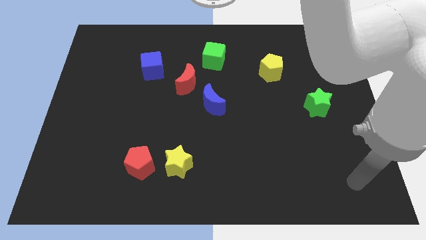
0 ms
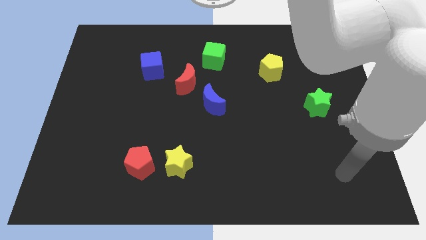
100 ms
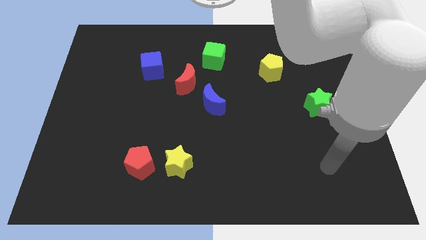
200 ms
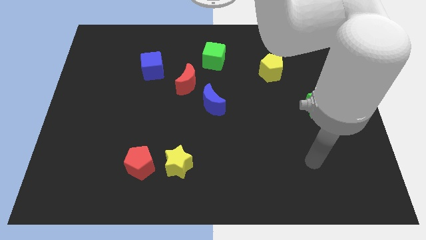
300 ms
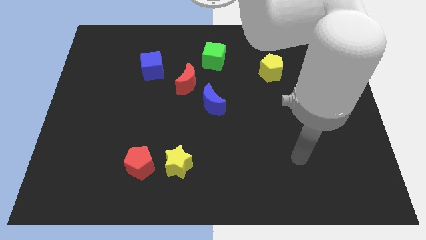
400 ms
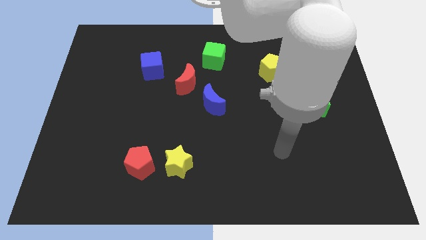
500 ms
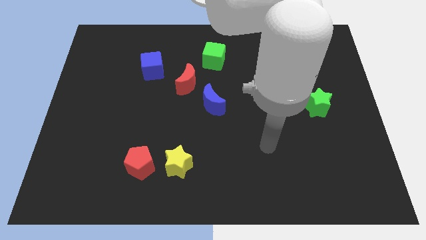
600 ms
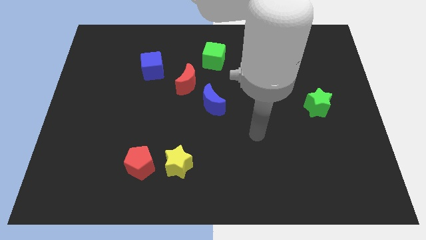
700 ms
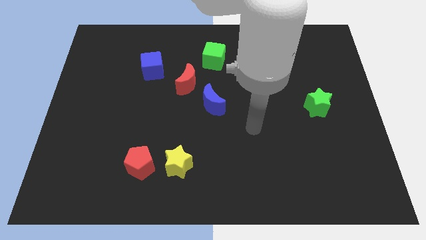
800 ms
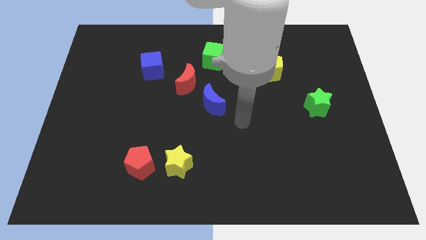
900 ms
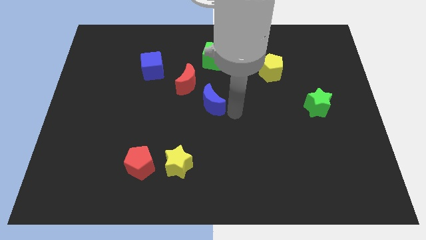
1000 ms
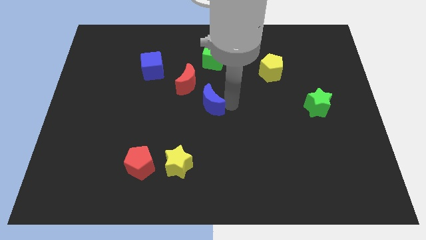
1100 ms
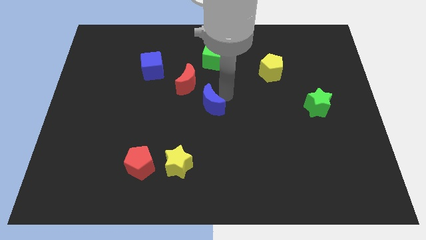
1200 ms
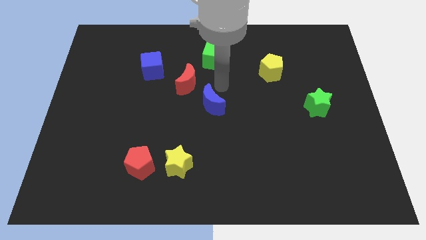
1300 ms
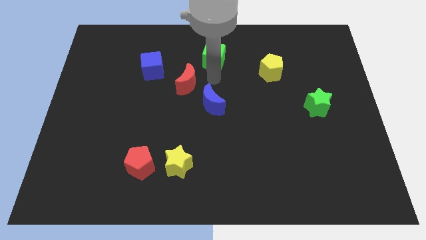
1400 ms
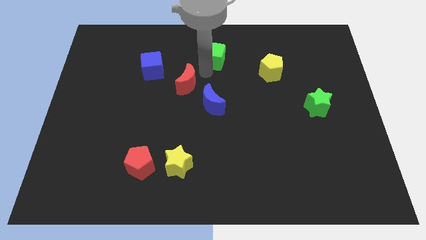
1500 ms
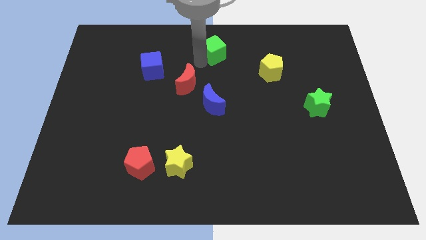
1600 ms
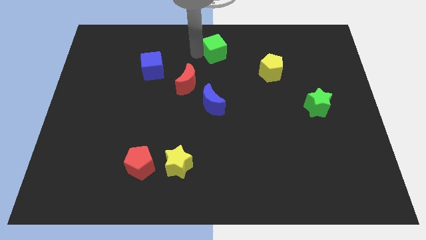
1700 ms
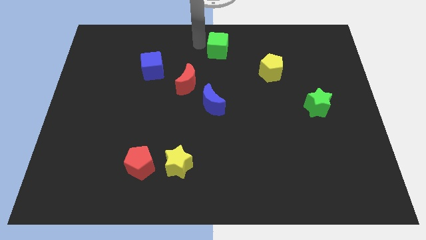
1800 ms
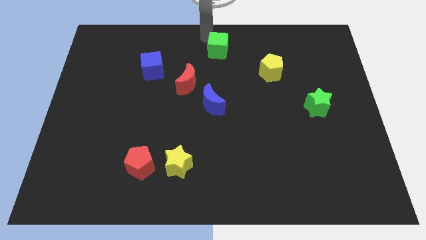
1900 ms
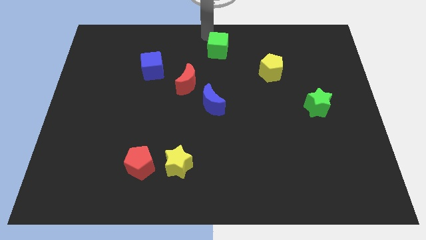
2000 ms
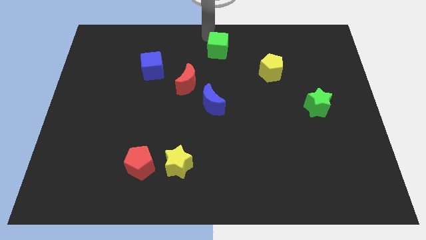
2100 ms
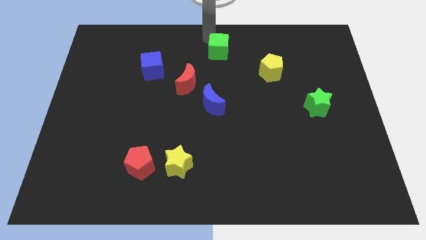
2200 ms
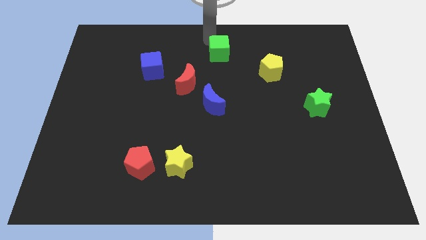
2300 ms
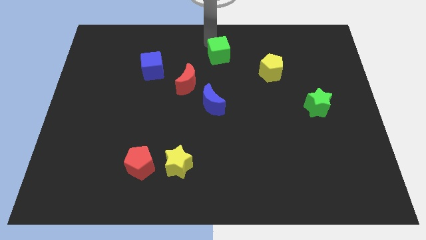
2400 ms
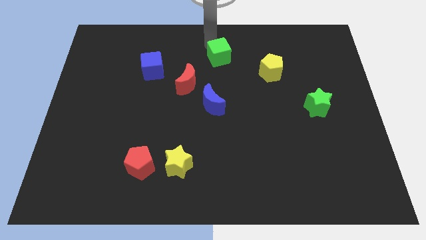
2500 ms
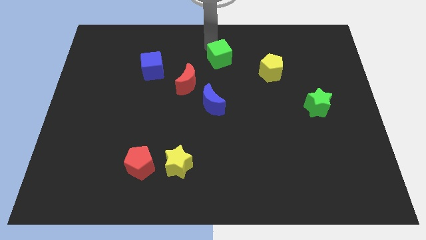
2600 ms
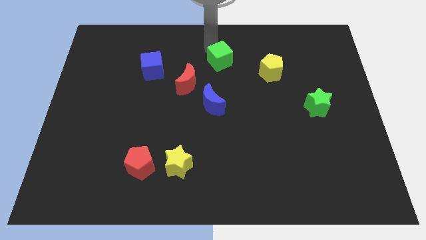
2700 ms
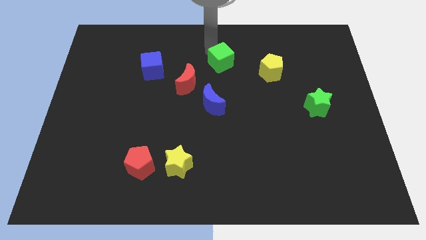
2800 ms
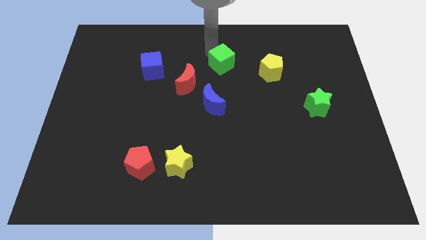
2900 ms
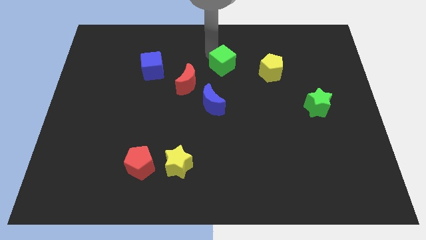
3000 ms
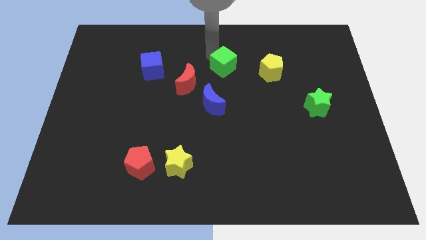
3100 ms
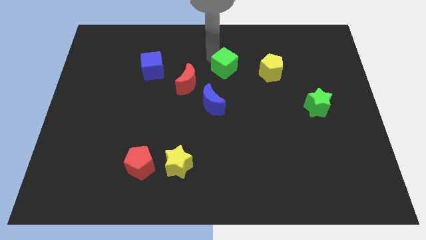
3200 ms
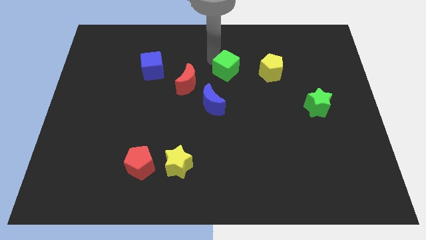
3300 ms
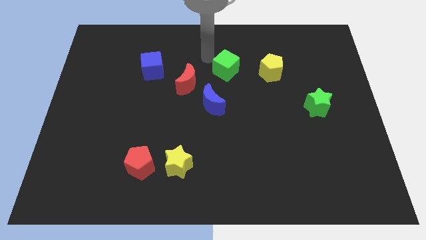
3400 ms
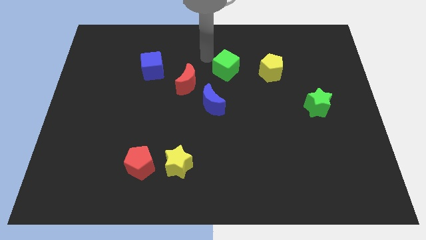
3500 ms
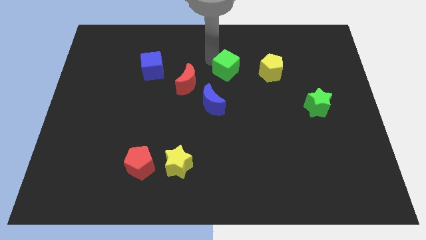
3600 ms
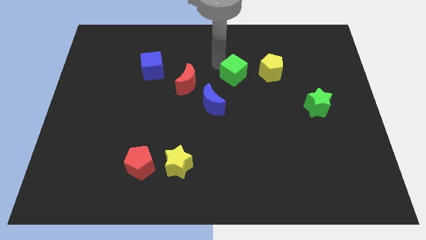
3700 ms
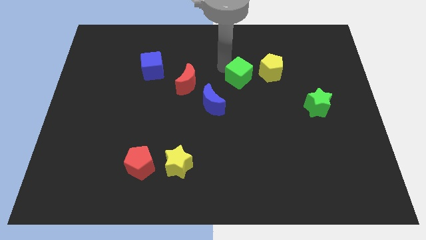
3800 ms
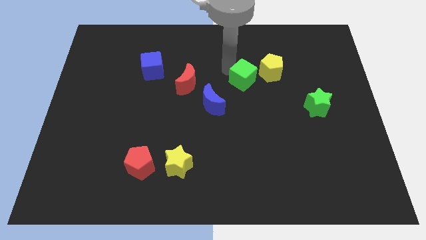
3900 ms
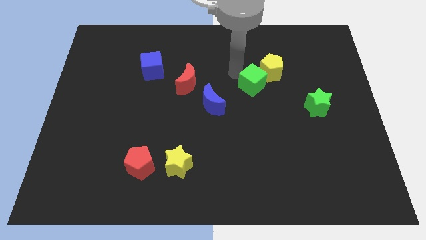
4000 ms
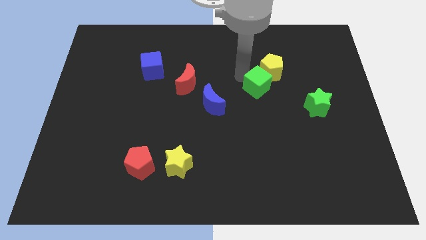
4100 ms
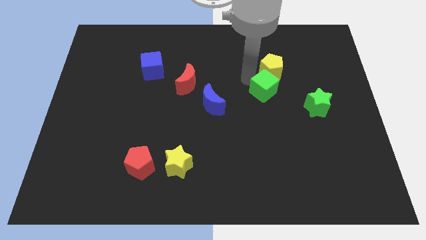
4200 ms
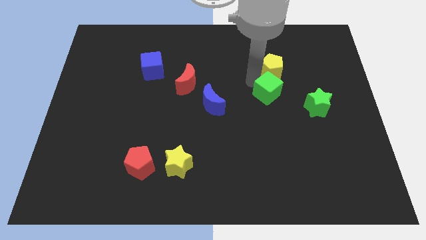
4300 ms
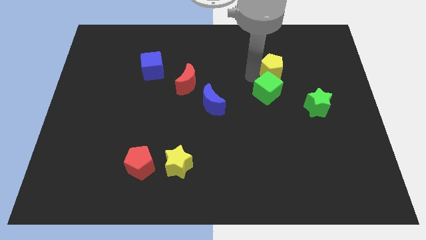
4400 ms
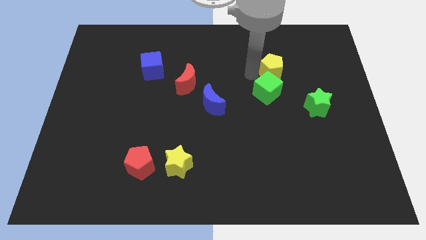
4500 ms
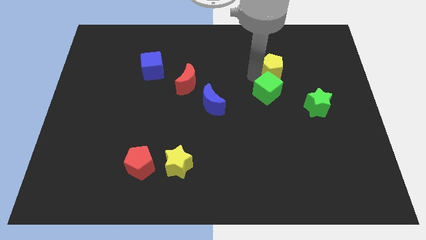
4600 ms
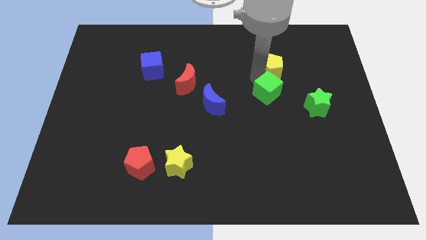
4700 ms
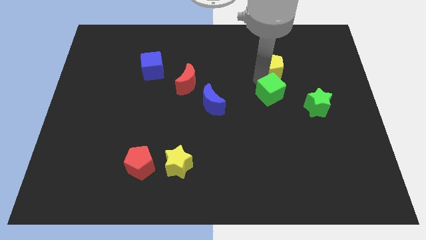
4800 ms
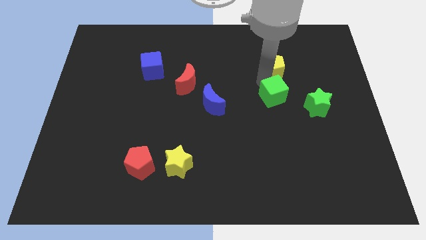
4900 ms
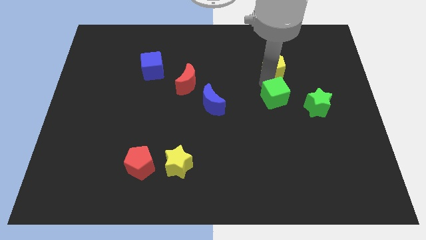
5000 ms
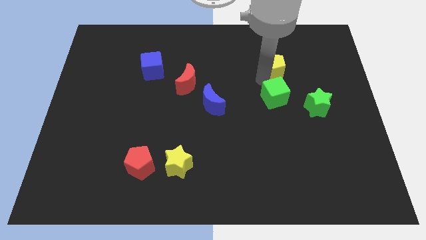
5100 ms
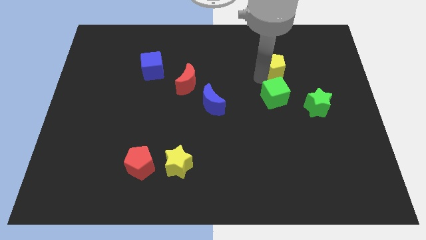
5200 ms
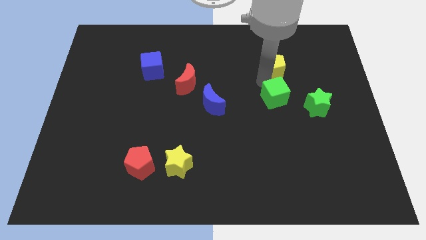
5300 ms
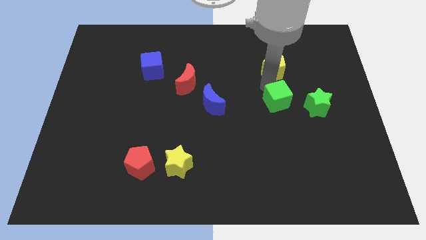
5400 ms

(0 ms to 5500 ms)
slide the green cube downwards and then right

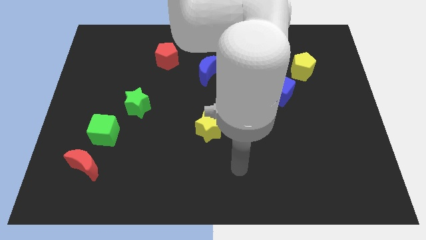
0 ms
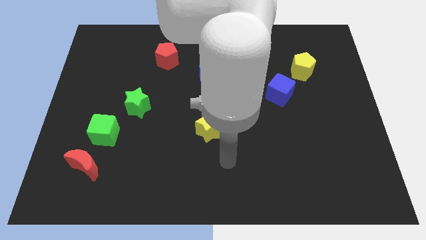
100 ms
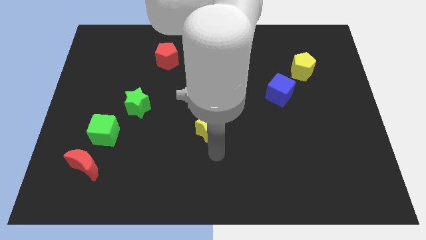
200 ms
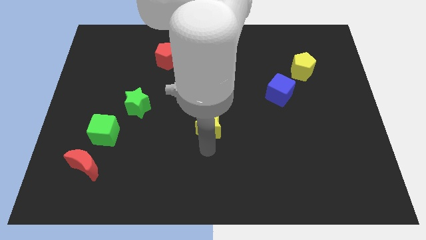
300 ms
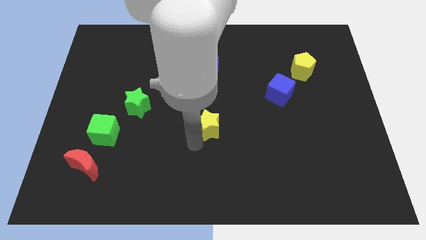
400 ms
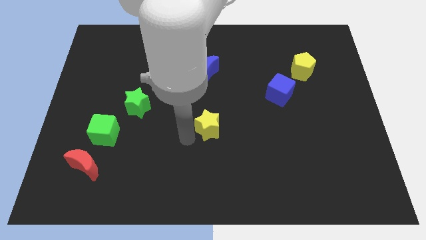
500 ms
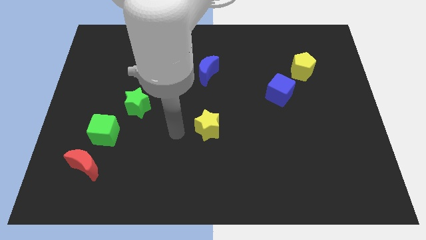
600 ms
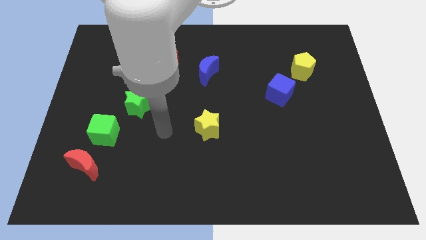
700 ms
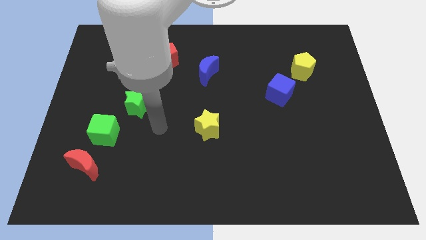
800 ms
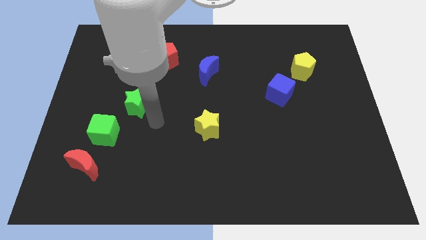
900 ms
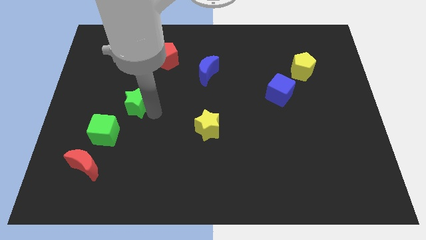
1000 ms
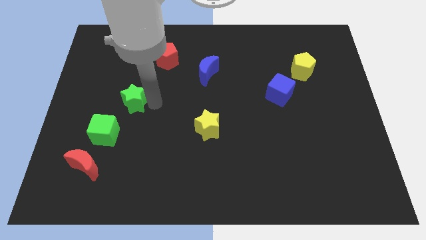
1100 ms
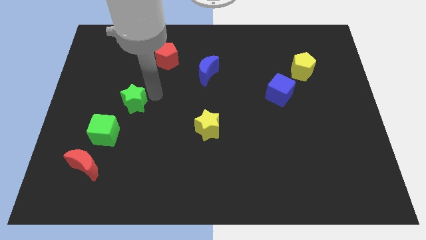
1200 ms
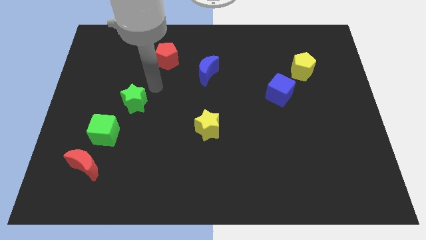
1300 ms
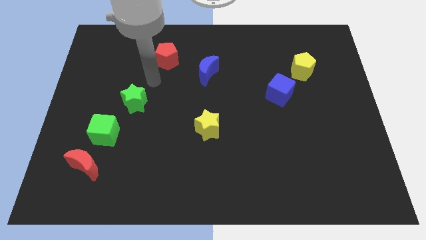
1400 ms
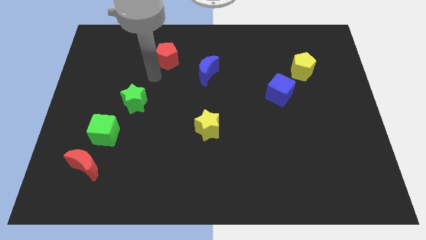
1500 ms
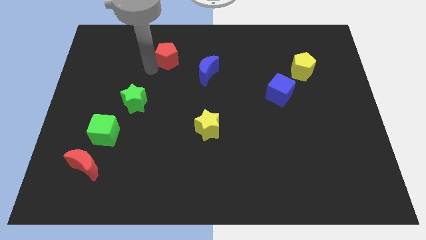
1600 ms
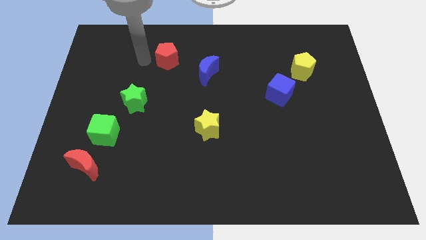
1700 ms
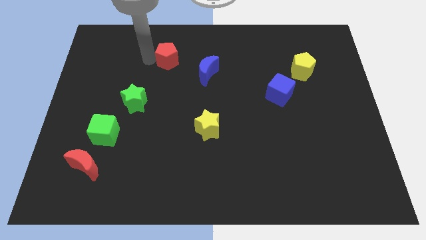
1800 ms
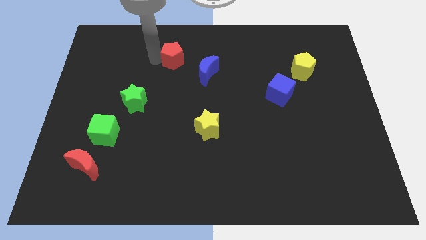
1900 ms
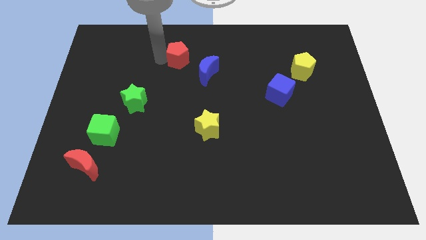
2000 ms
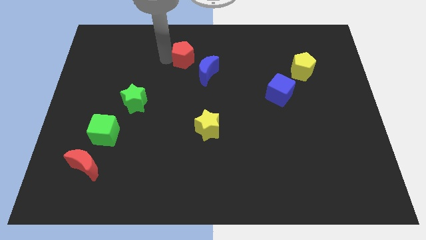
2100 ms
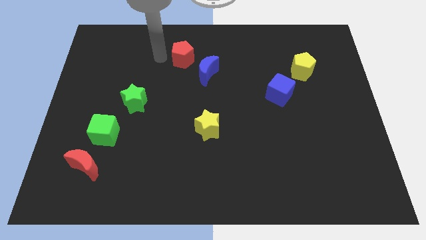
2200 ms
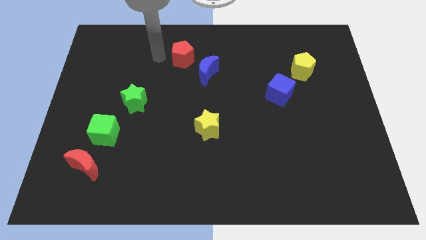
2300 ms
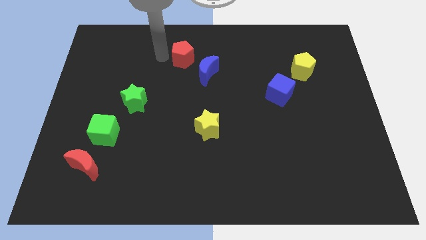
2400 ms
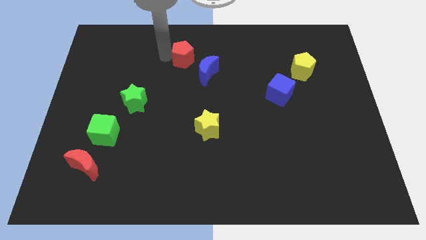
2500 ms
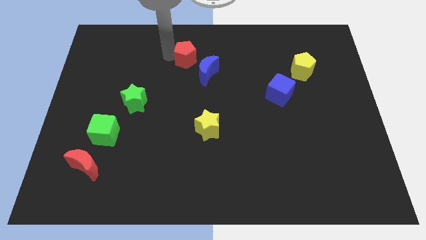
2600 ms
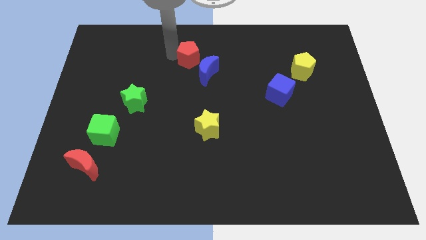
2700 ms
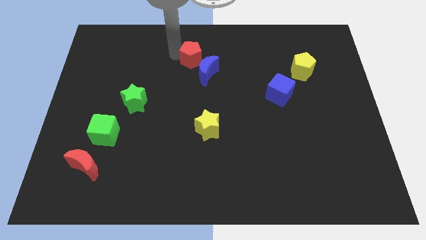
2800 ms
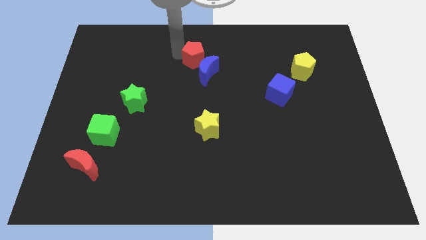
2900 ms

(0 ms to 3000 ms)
push the red pentagon right a little bit
